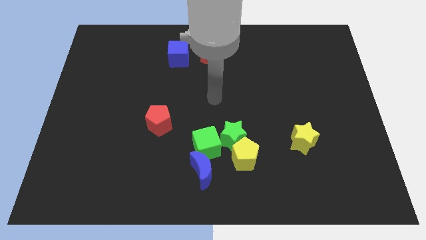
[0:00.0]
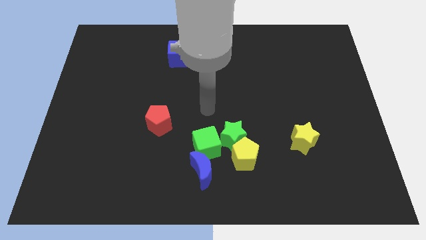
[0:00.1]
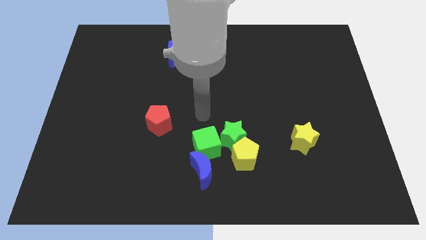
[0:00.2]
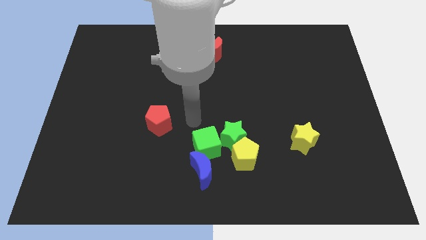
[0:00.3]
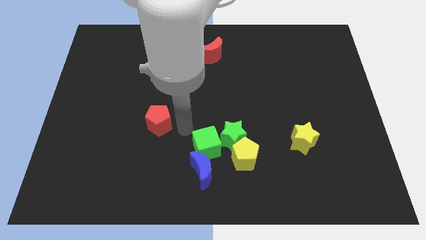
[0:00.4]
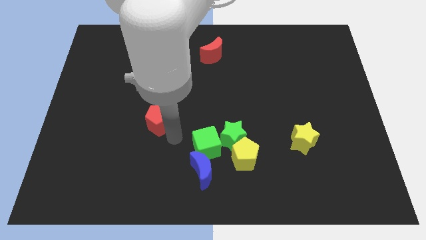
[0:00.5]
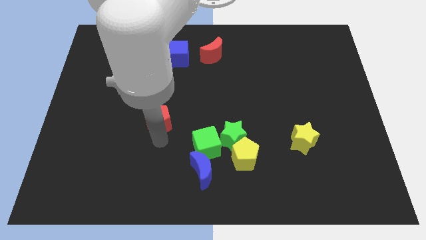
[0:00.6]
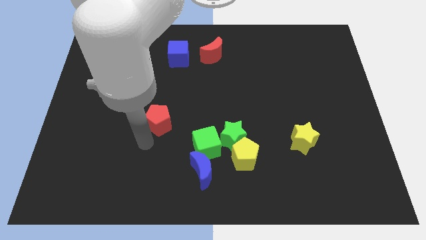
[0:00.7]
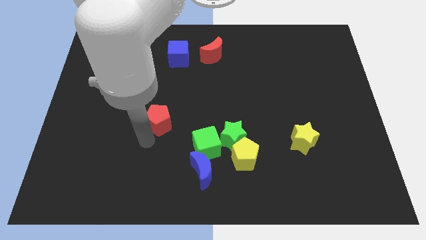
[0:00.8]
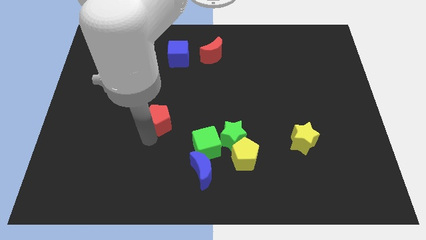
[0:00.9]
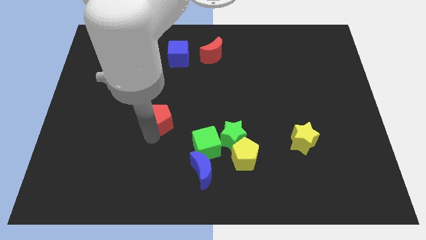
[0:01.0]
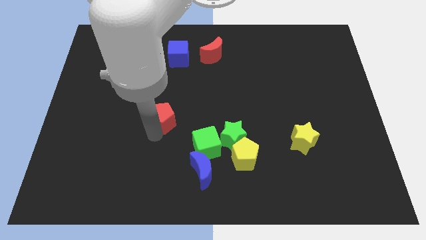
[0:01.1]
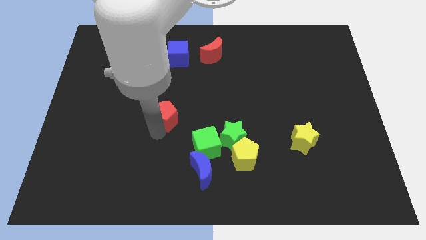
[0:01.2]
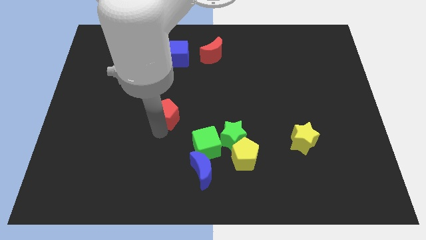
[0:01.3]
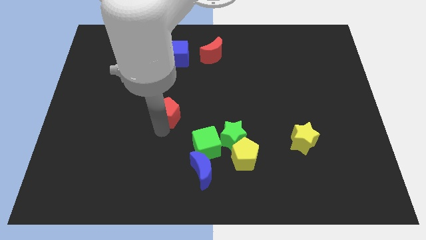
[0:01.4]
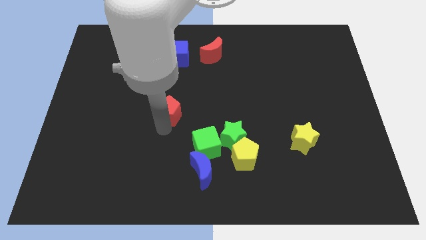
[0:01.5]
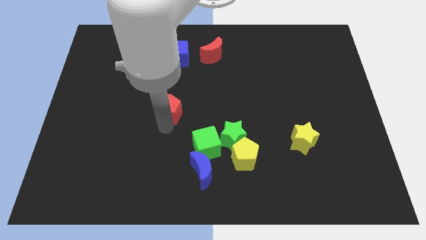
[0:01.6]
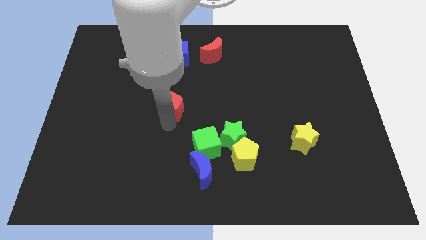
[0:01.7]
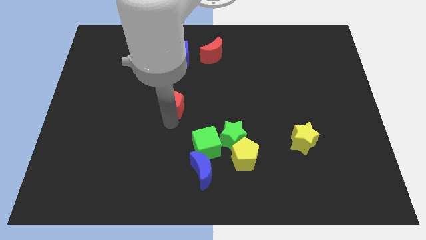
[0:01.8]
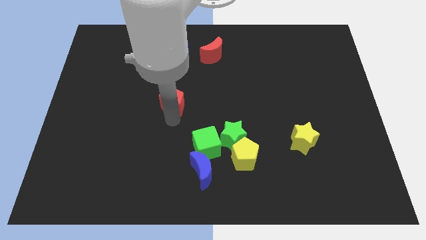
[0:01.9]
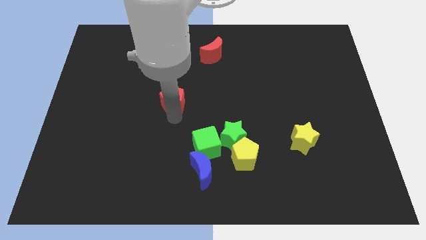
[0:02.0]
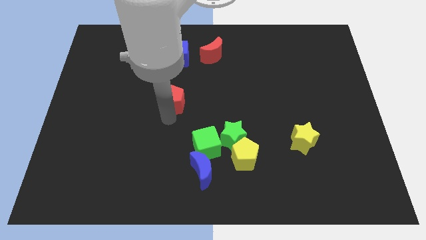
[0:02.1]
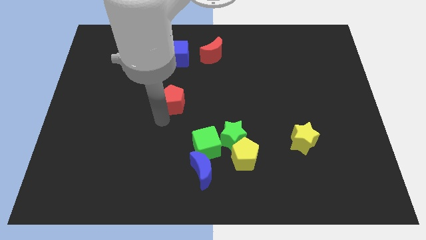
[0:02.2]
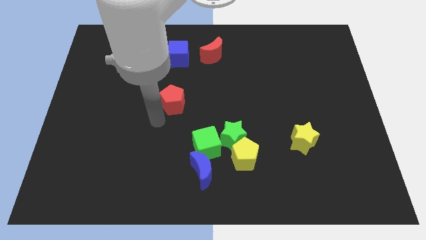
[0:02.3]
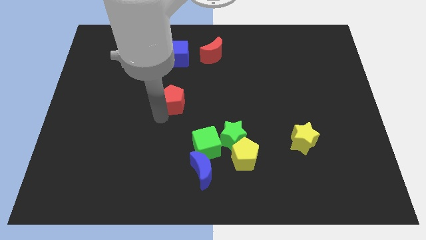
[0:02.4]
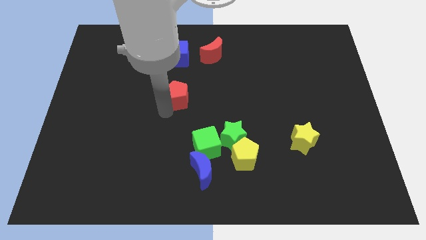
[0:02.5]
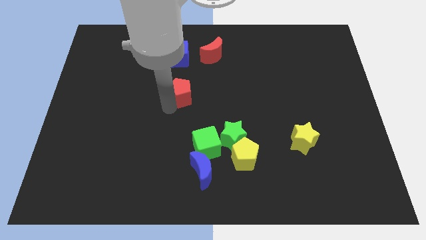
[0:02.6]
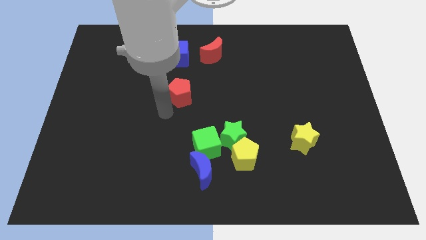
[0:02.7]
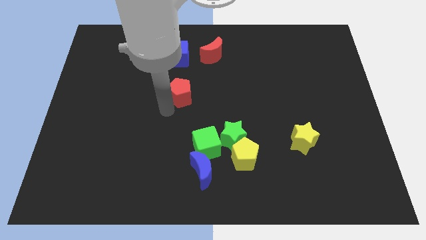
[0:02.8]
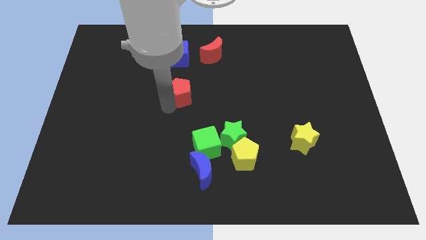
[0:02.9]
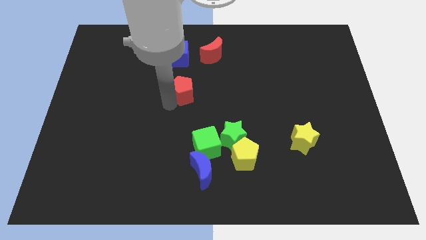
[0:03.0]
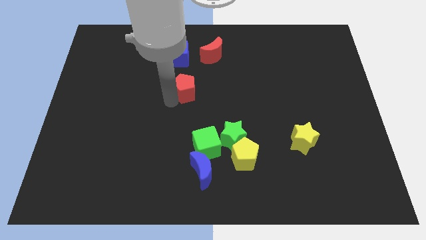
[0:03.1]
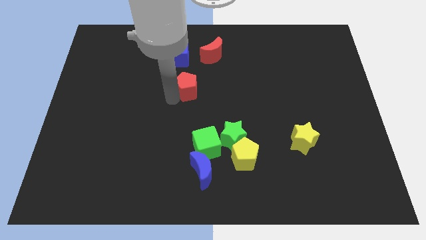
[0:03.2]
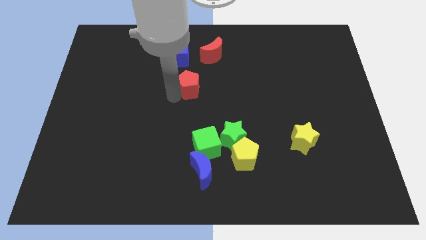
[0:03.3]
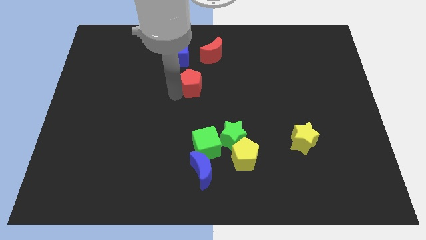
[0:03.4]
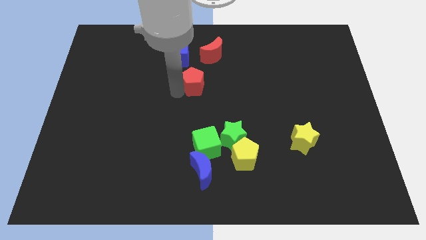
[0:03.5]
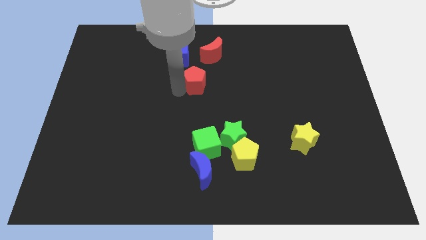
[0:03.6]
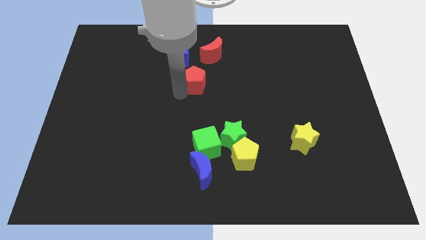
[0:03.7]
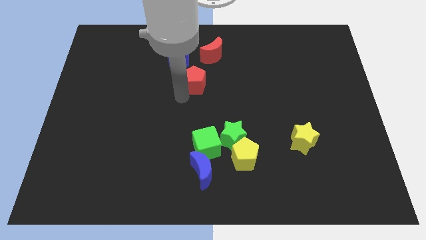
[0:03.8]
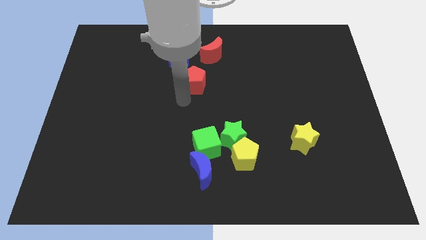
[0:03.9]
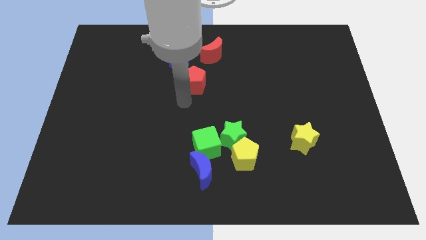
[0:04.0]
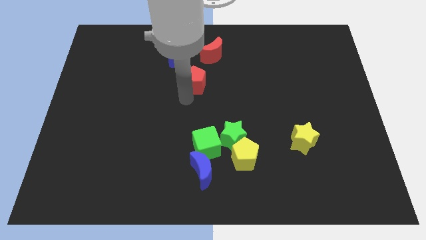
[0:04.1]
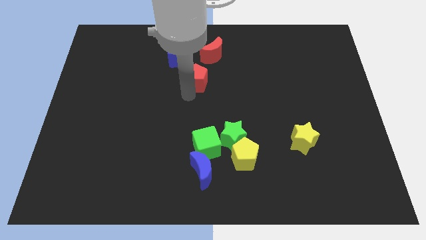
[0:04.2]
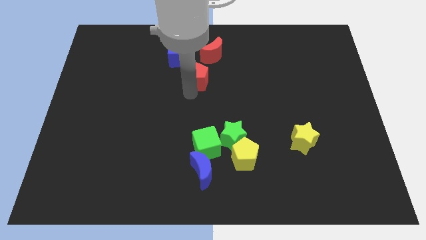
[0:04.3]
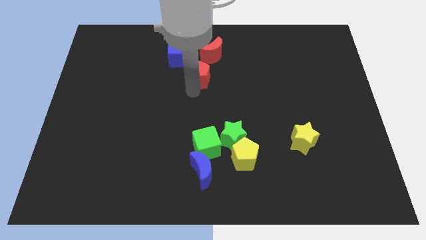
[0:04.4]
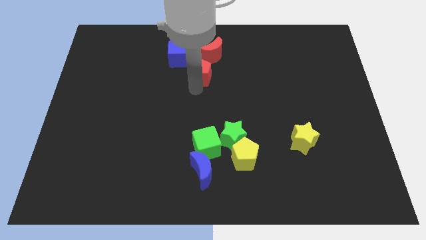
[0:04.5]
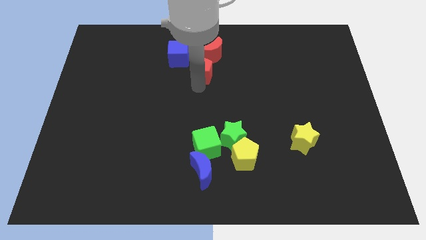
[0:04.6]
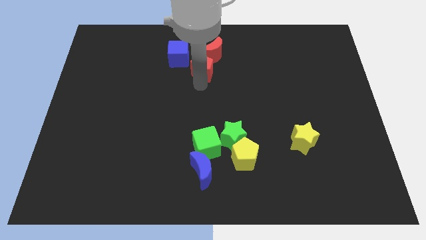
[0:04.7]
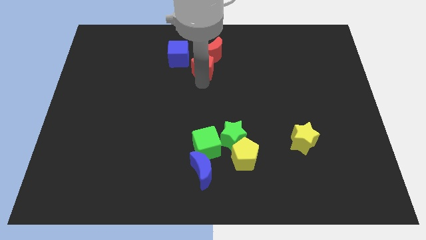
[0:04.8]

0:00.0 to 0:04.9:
push the red pentagon towards the red moon

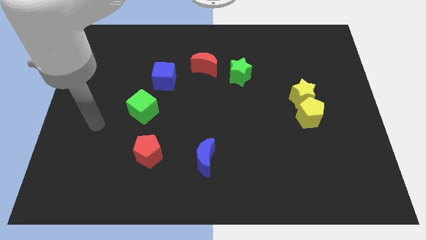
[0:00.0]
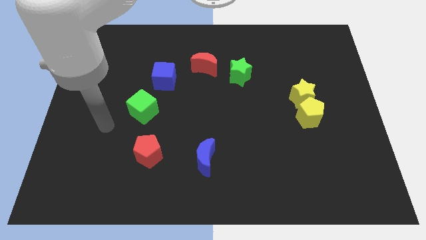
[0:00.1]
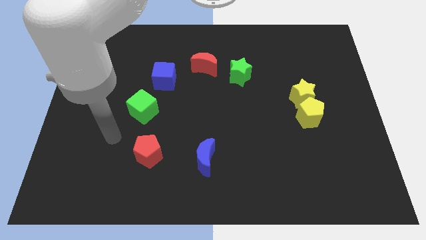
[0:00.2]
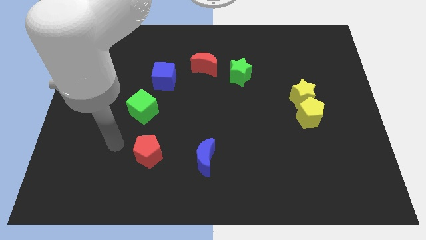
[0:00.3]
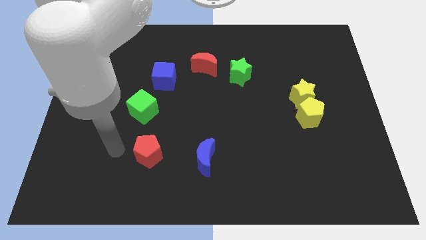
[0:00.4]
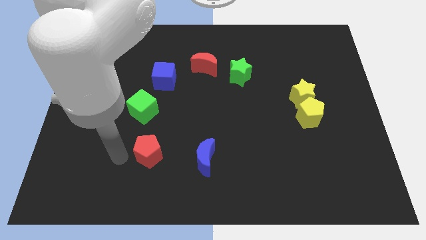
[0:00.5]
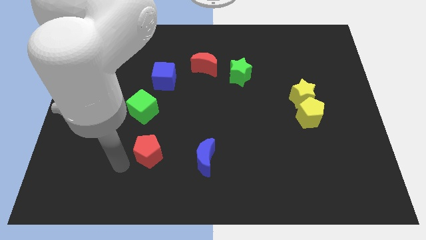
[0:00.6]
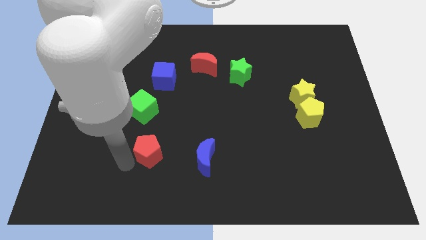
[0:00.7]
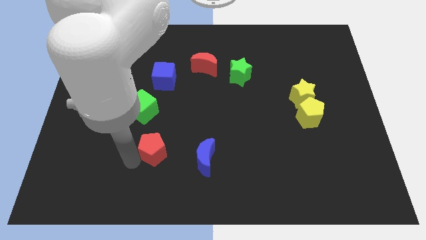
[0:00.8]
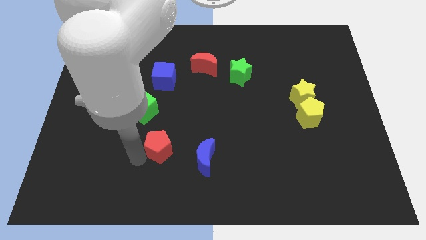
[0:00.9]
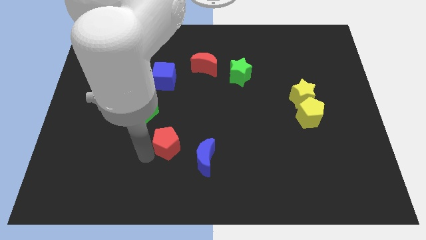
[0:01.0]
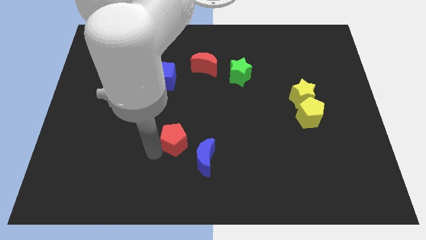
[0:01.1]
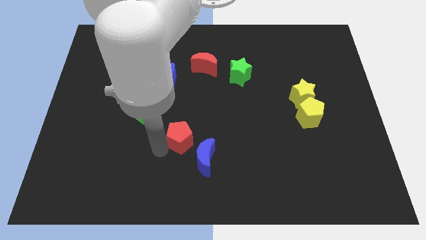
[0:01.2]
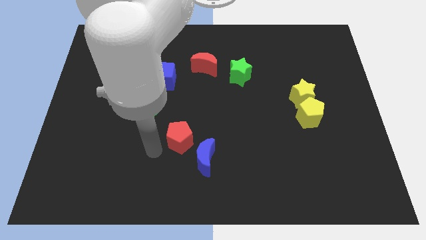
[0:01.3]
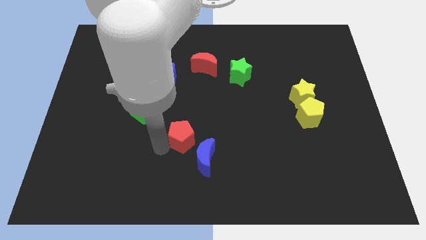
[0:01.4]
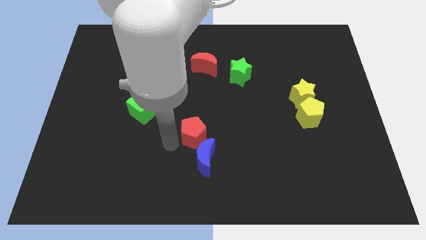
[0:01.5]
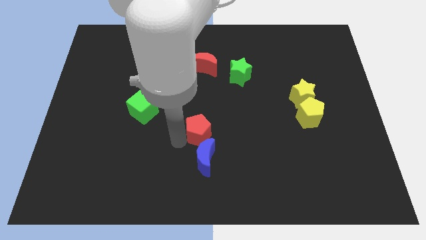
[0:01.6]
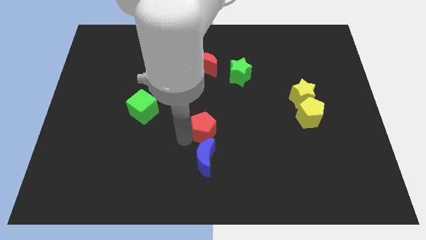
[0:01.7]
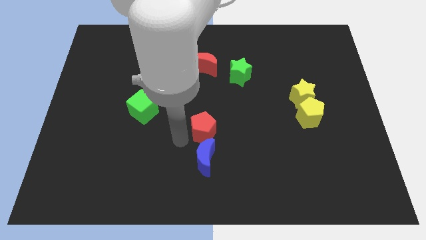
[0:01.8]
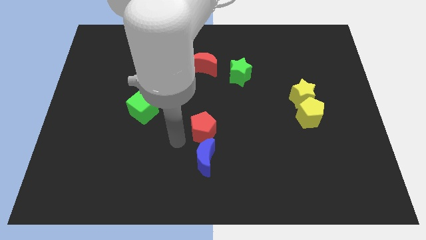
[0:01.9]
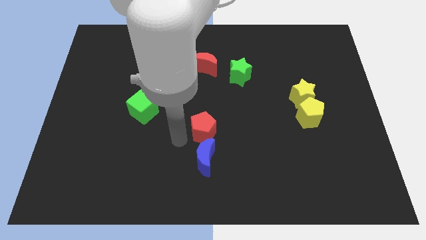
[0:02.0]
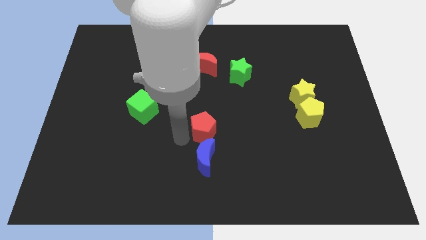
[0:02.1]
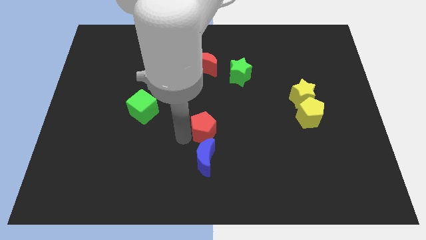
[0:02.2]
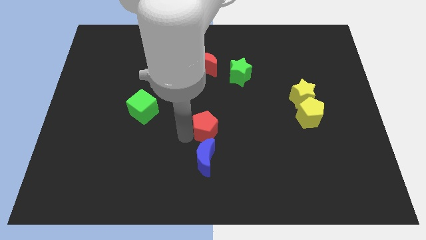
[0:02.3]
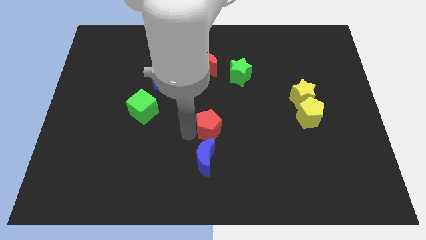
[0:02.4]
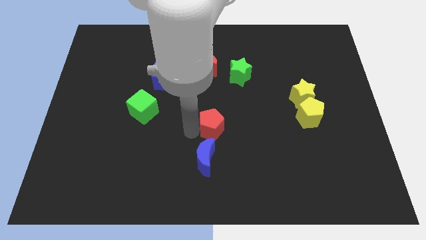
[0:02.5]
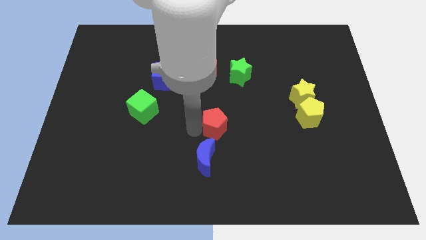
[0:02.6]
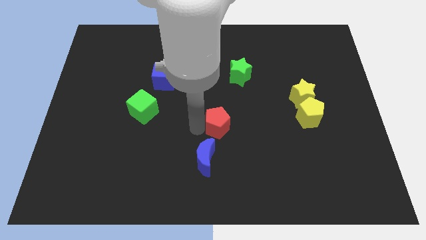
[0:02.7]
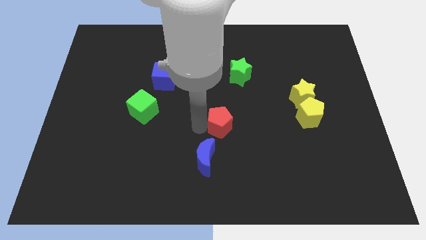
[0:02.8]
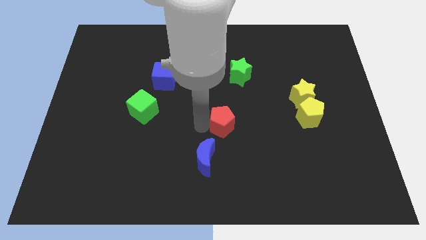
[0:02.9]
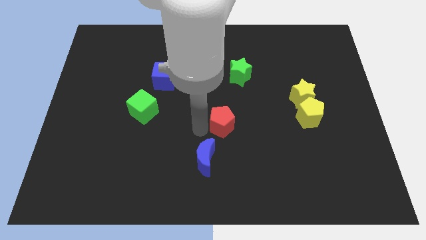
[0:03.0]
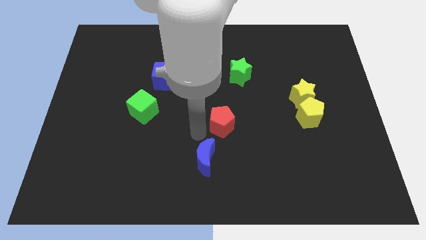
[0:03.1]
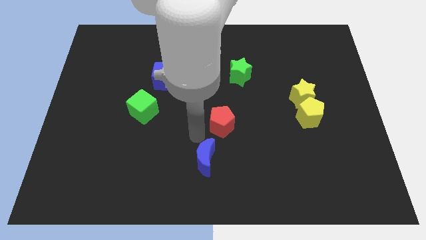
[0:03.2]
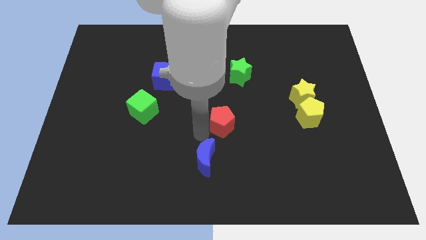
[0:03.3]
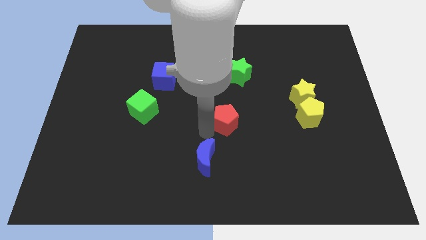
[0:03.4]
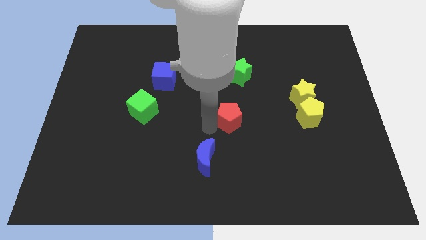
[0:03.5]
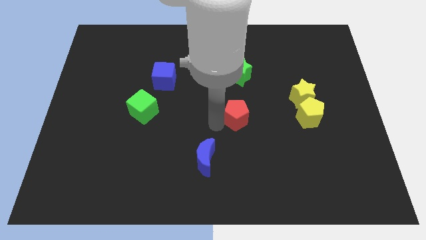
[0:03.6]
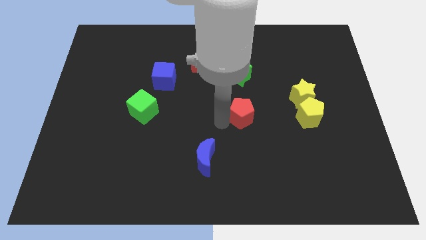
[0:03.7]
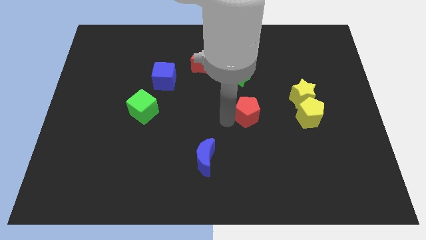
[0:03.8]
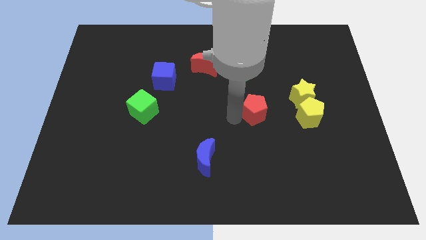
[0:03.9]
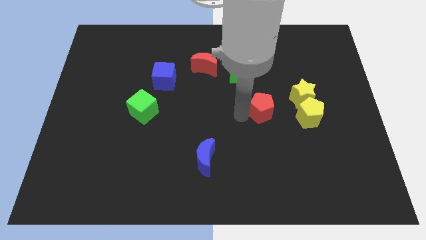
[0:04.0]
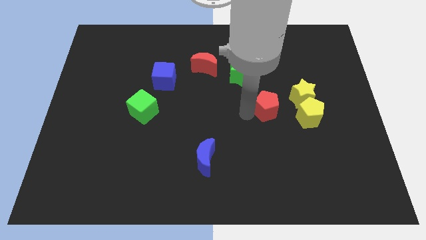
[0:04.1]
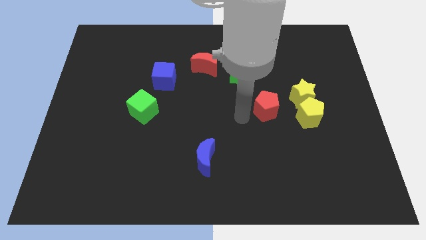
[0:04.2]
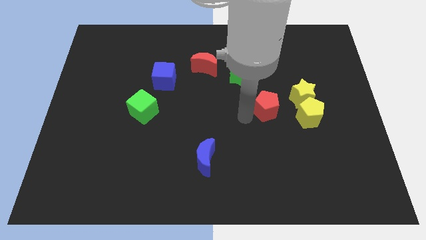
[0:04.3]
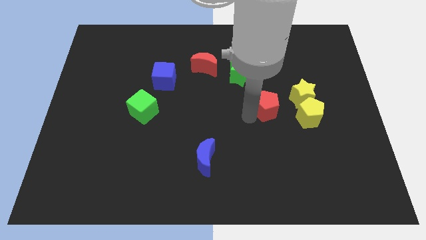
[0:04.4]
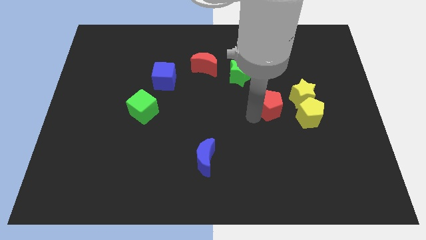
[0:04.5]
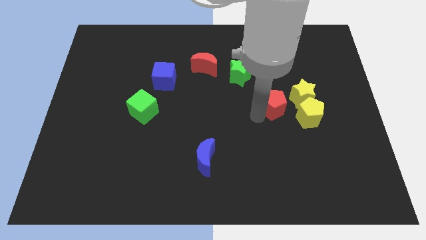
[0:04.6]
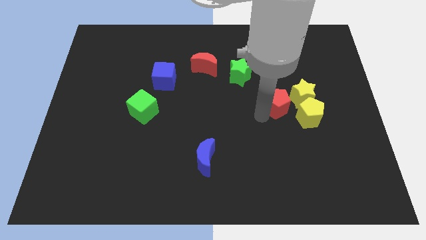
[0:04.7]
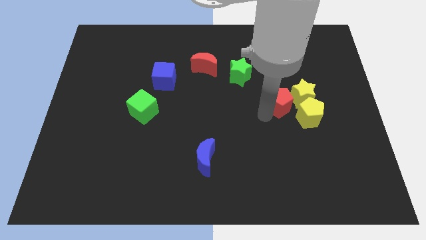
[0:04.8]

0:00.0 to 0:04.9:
put the red pentagon close to the yellow star
